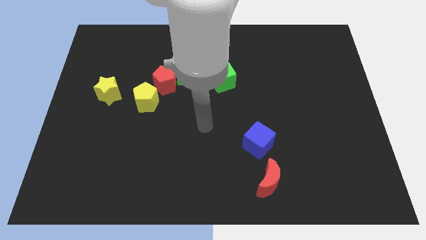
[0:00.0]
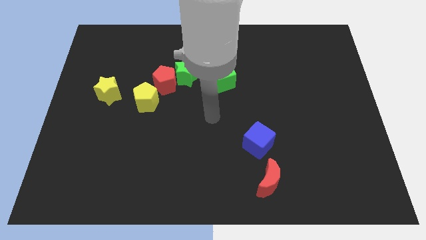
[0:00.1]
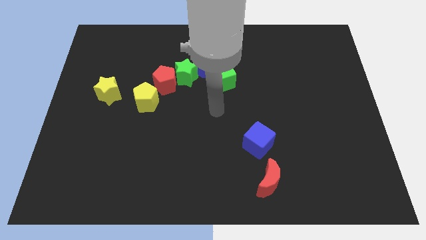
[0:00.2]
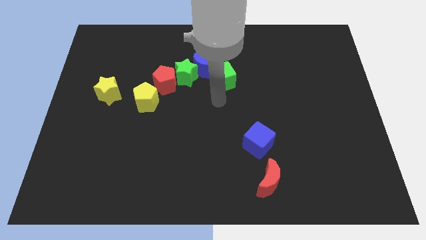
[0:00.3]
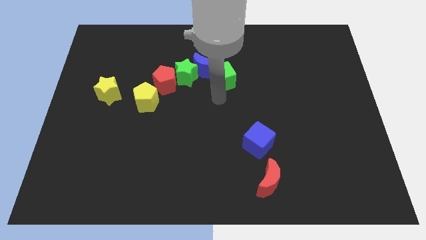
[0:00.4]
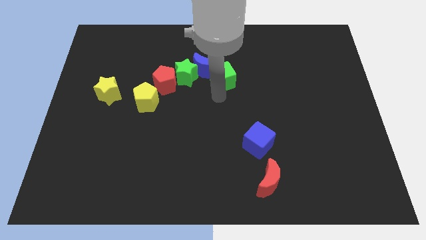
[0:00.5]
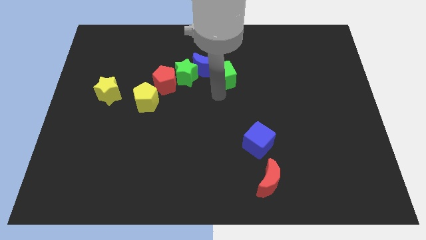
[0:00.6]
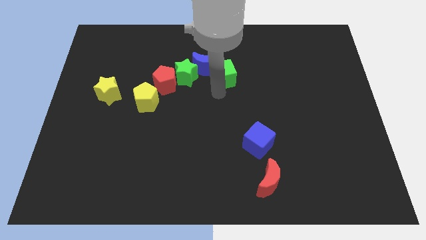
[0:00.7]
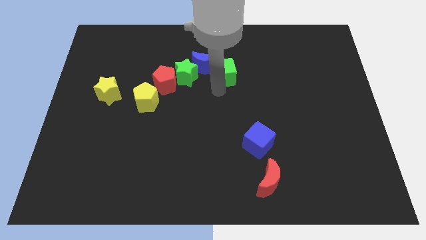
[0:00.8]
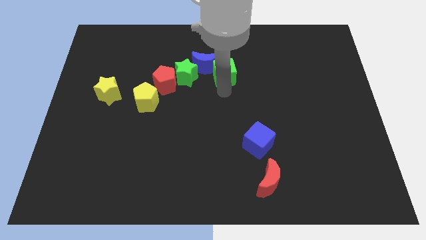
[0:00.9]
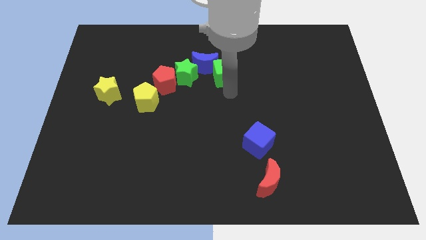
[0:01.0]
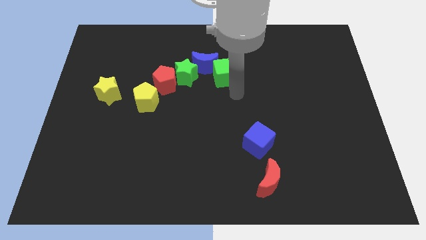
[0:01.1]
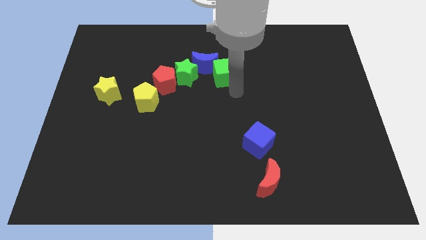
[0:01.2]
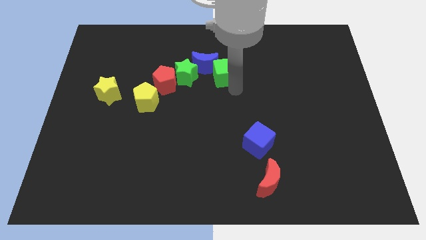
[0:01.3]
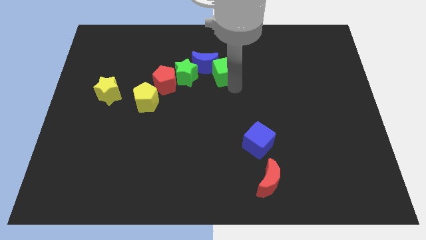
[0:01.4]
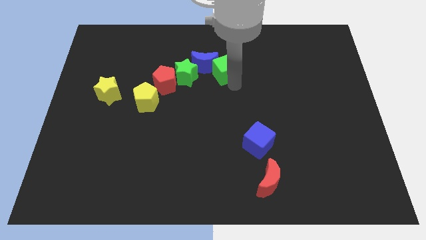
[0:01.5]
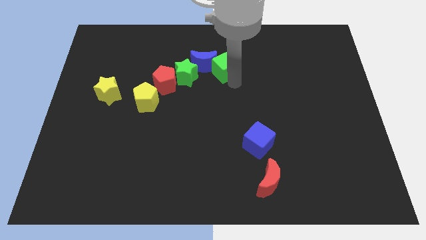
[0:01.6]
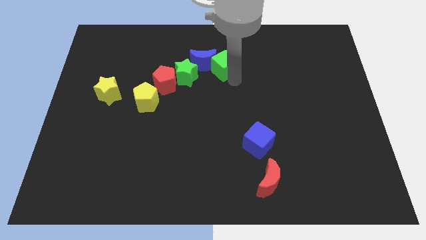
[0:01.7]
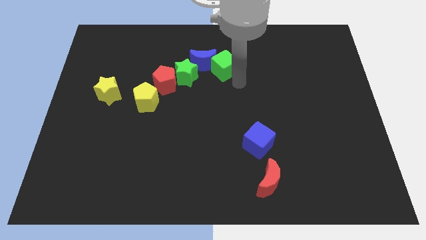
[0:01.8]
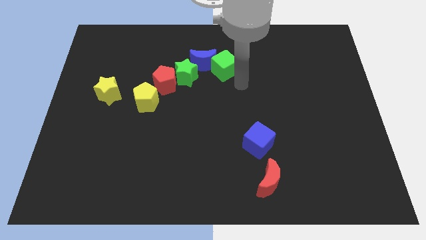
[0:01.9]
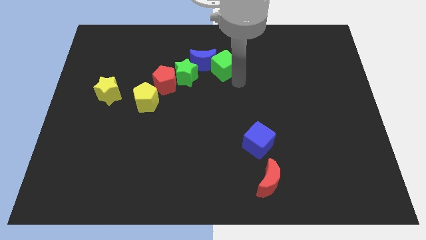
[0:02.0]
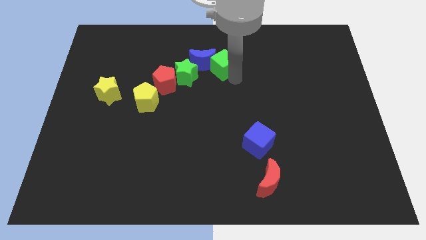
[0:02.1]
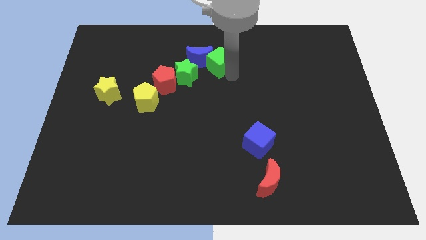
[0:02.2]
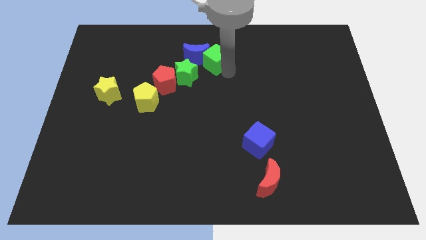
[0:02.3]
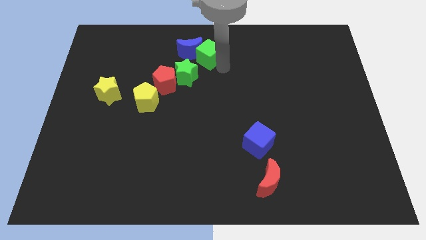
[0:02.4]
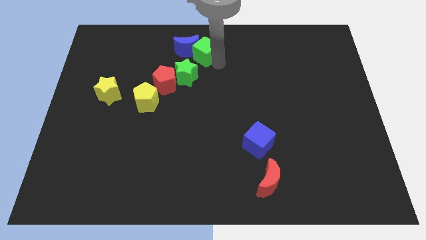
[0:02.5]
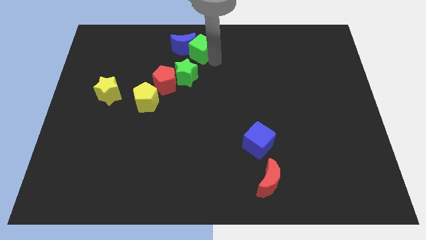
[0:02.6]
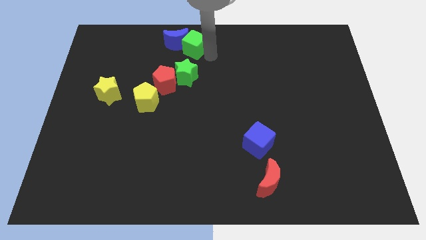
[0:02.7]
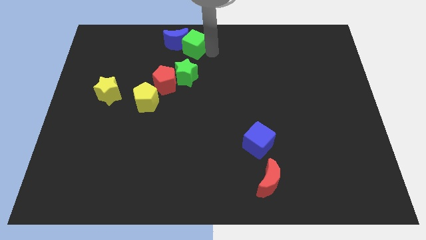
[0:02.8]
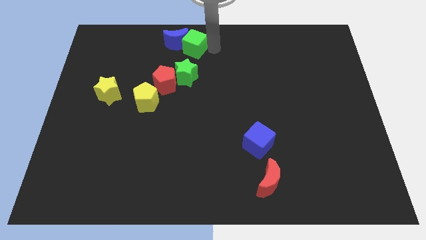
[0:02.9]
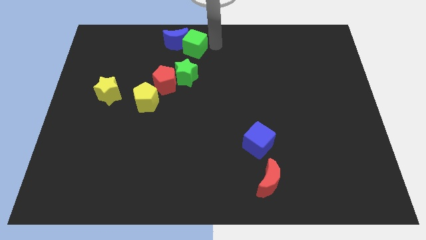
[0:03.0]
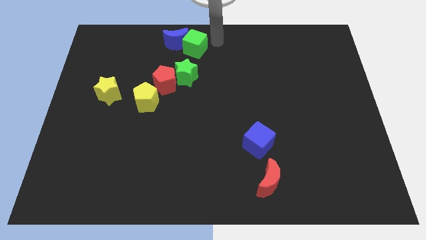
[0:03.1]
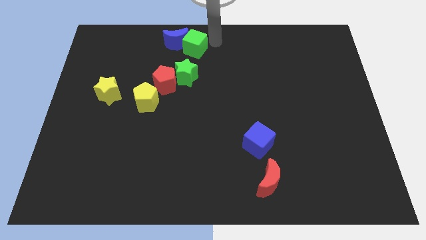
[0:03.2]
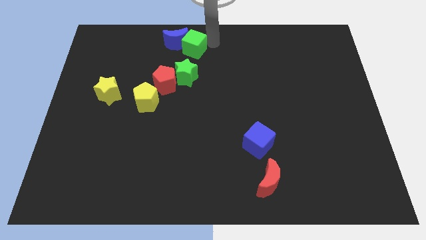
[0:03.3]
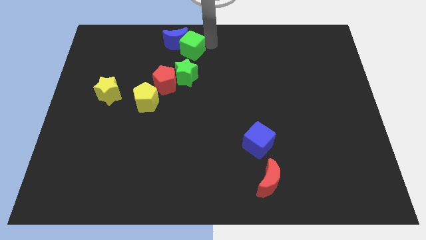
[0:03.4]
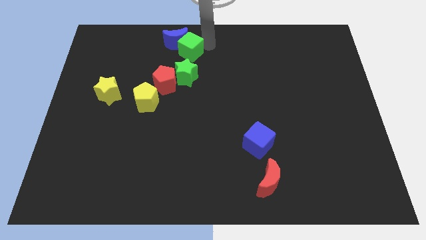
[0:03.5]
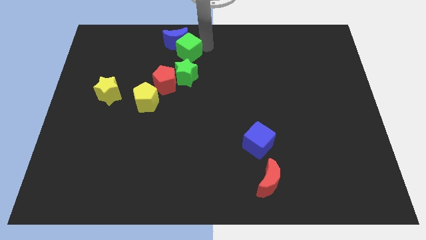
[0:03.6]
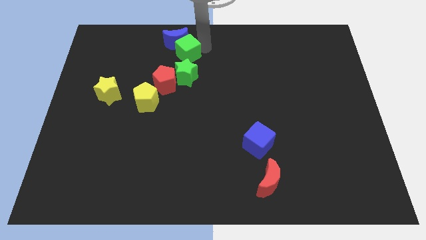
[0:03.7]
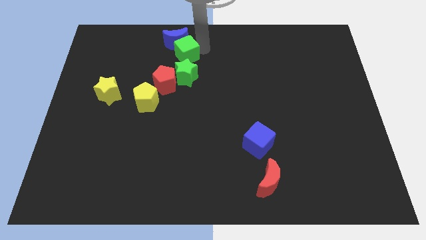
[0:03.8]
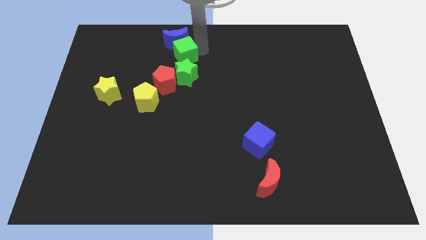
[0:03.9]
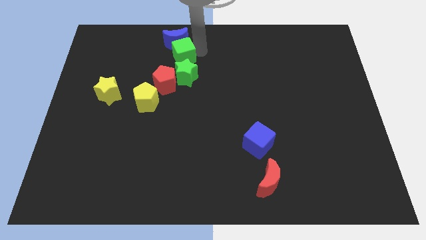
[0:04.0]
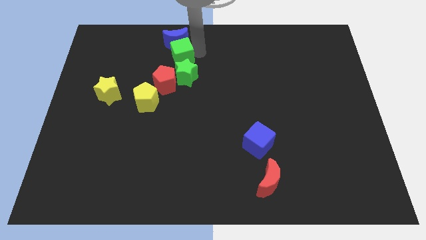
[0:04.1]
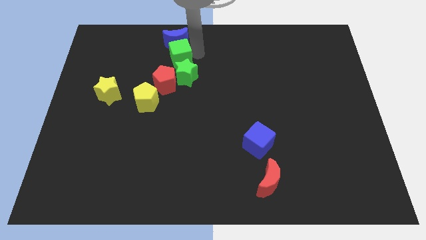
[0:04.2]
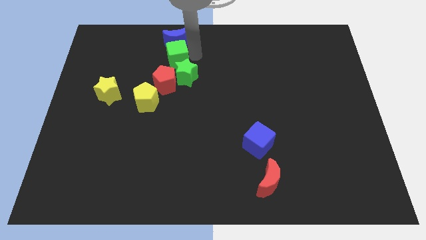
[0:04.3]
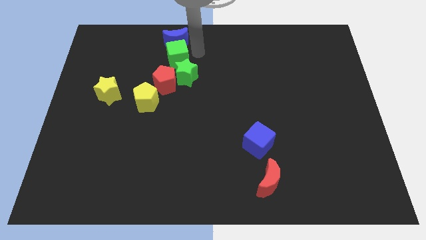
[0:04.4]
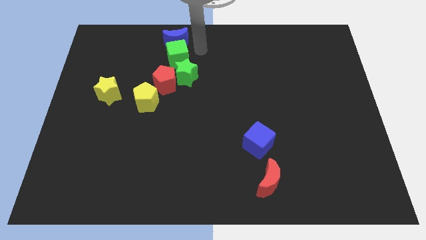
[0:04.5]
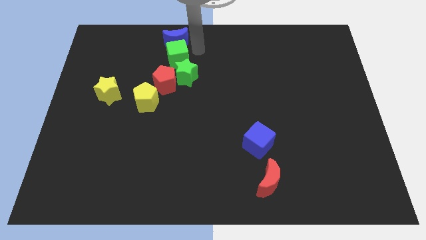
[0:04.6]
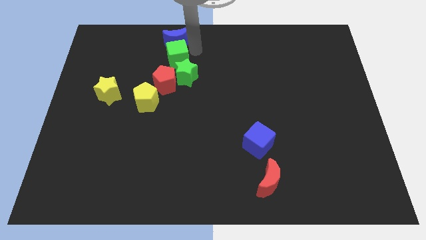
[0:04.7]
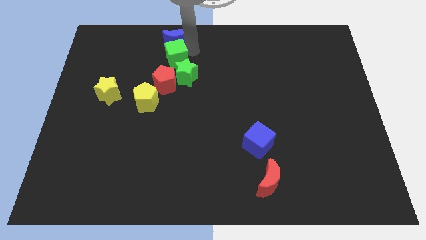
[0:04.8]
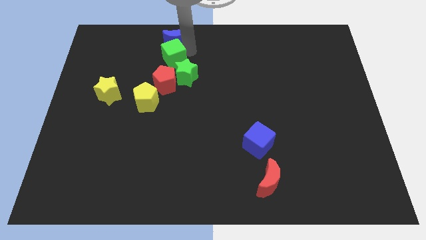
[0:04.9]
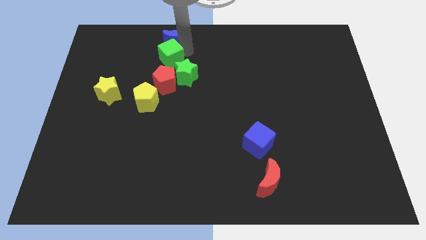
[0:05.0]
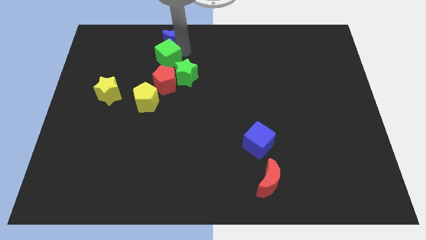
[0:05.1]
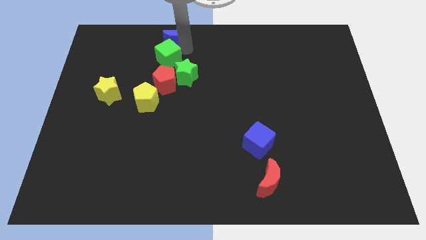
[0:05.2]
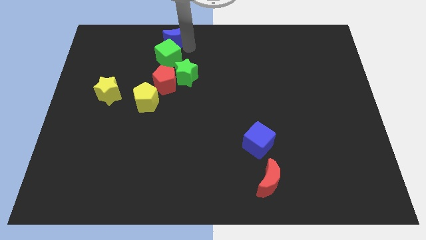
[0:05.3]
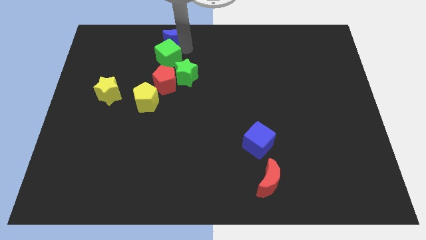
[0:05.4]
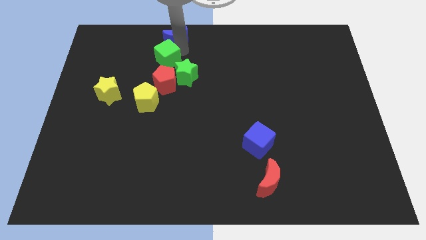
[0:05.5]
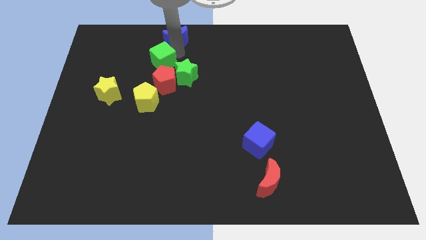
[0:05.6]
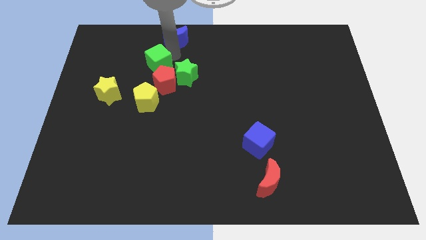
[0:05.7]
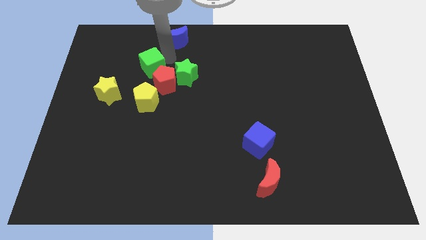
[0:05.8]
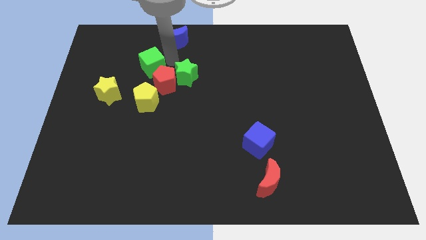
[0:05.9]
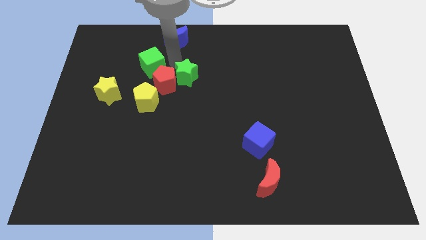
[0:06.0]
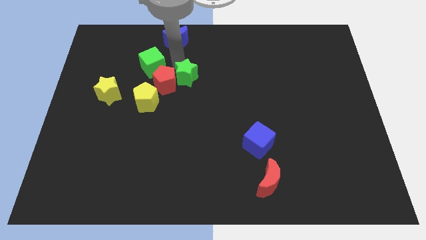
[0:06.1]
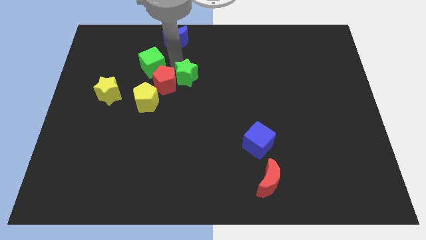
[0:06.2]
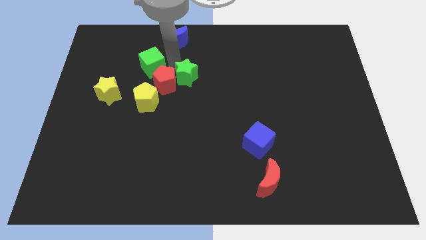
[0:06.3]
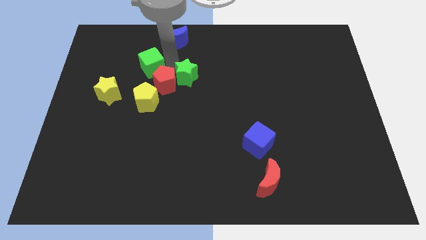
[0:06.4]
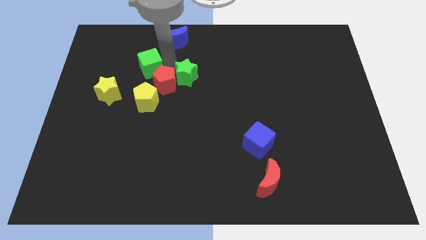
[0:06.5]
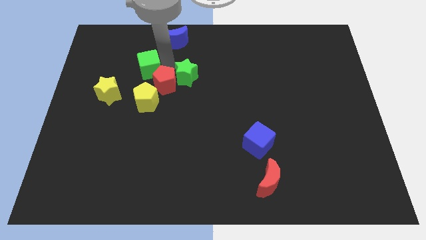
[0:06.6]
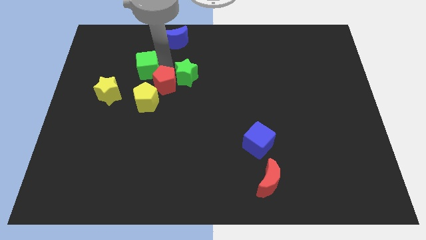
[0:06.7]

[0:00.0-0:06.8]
put the green cube just left of the red pentagon

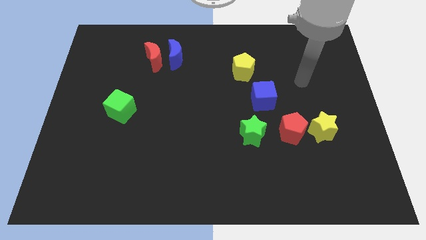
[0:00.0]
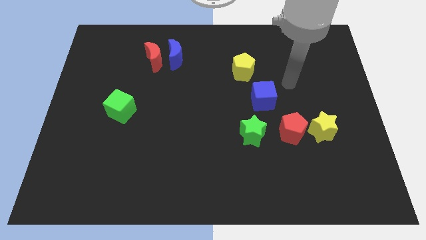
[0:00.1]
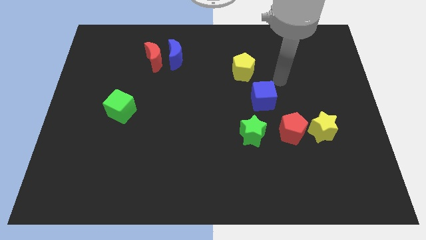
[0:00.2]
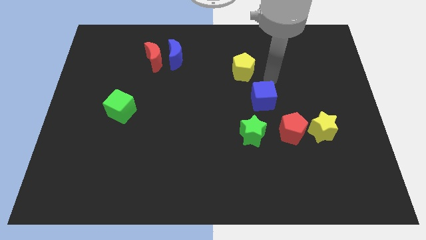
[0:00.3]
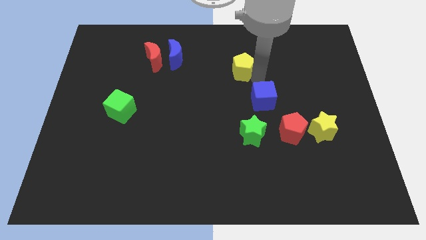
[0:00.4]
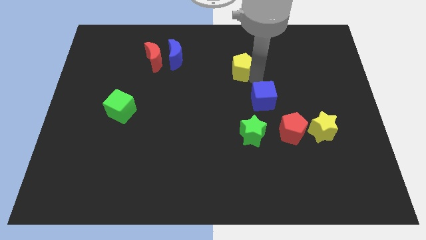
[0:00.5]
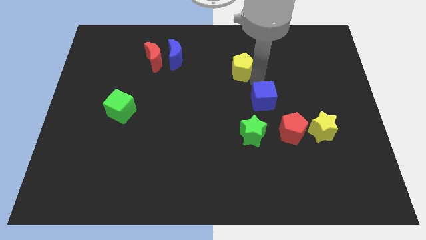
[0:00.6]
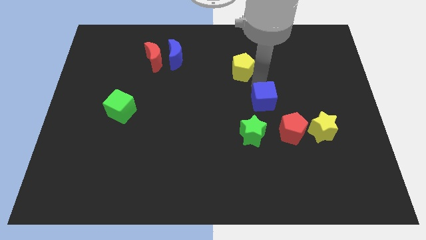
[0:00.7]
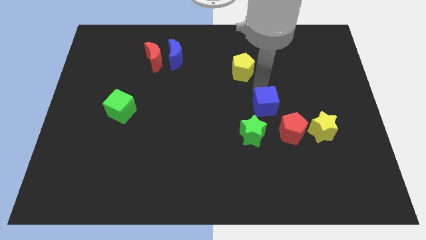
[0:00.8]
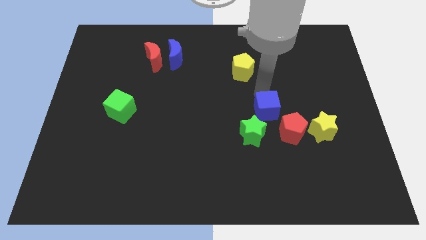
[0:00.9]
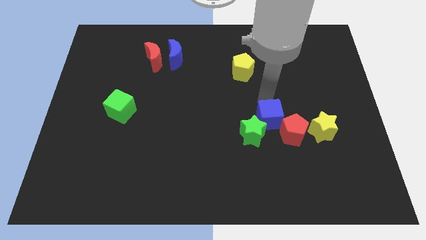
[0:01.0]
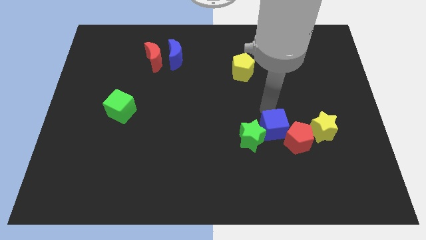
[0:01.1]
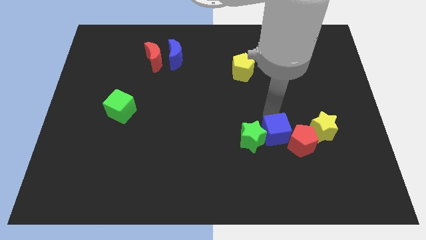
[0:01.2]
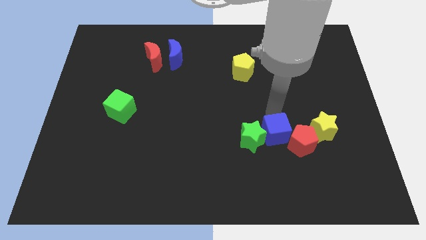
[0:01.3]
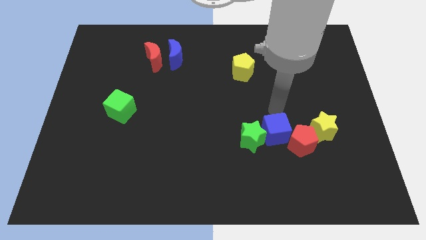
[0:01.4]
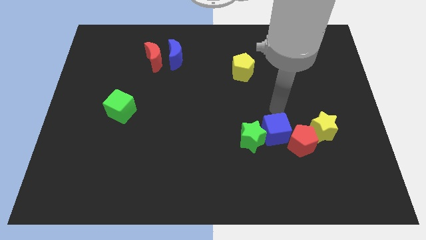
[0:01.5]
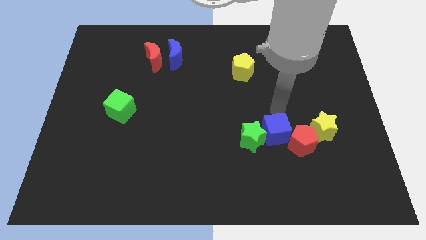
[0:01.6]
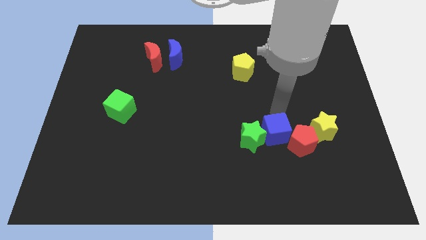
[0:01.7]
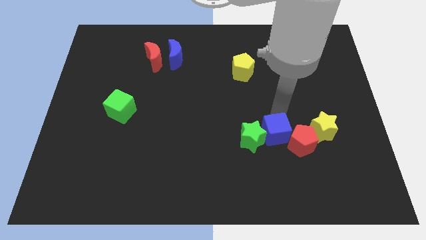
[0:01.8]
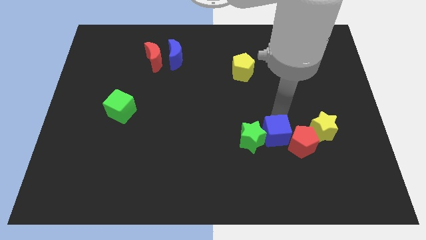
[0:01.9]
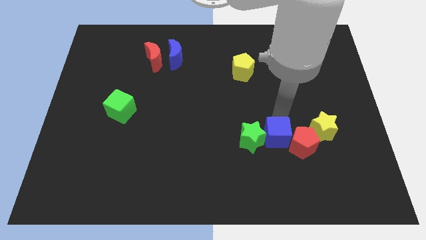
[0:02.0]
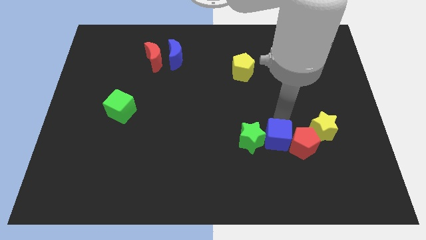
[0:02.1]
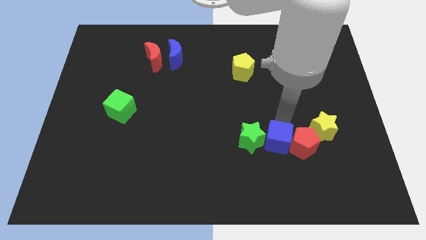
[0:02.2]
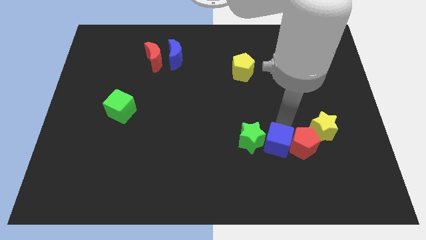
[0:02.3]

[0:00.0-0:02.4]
slide the blue cube diagonally down and to the left of the yellow star
